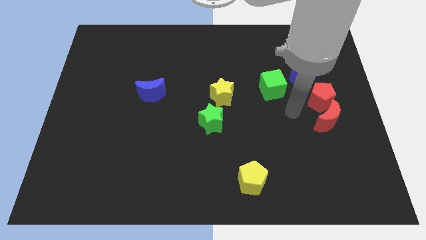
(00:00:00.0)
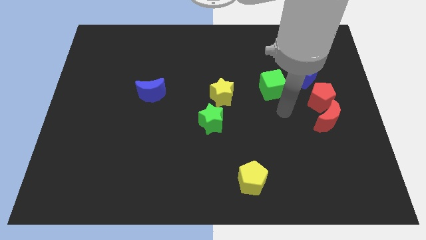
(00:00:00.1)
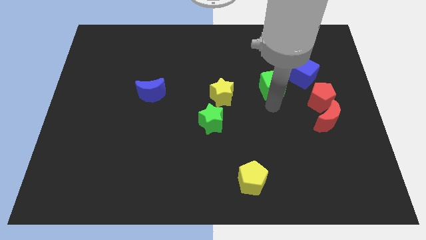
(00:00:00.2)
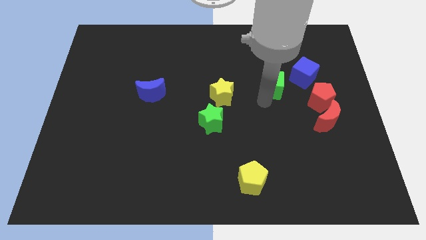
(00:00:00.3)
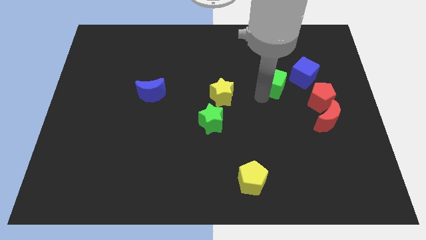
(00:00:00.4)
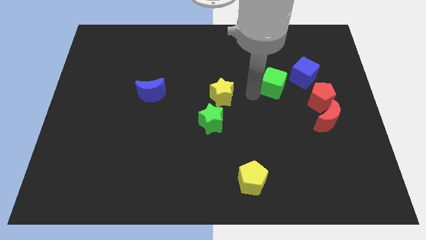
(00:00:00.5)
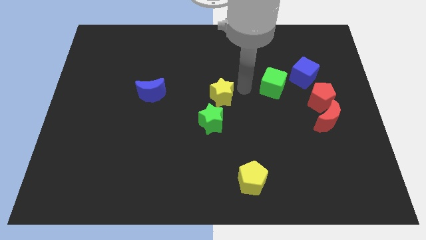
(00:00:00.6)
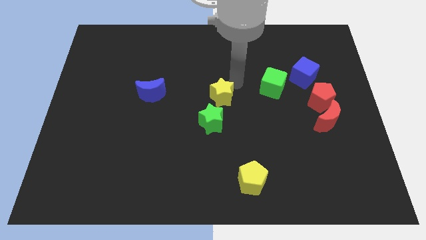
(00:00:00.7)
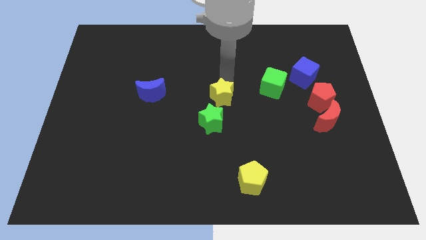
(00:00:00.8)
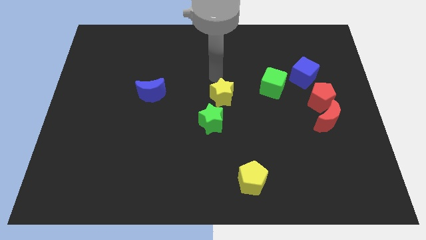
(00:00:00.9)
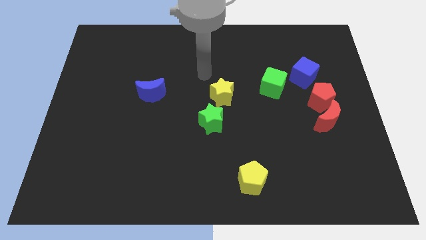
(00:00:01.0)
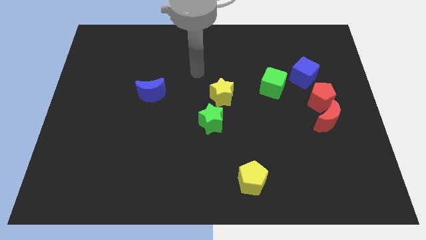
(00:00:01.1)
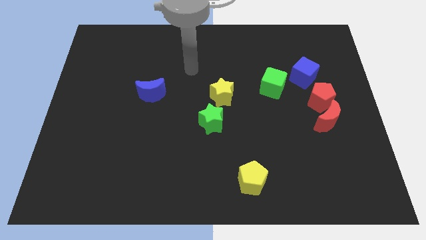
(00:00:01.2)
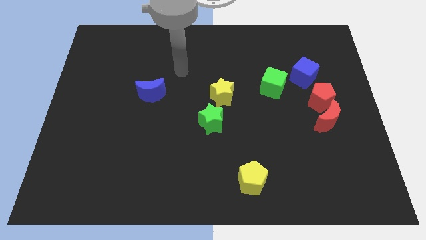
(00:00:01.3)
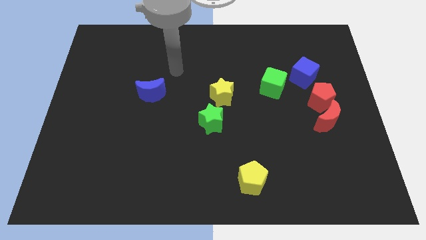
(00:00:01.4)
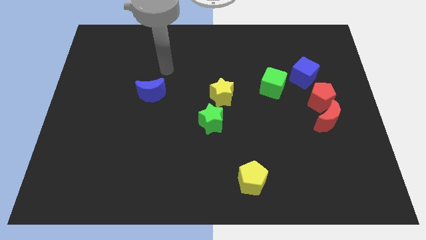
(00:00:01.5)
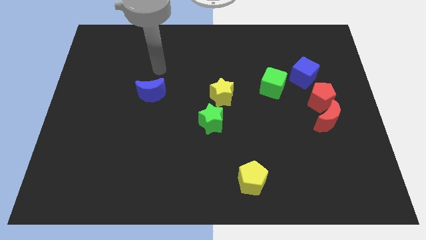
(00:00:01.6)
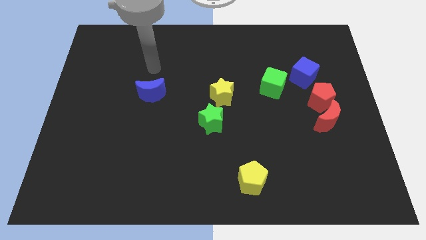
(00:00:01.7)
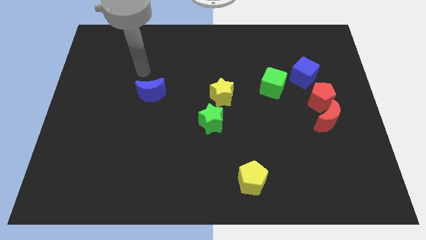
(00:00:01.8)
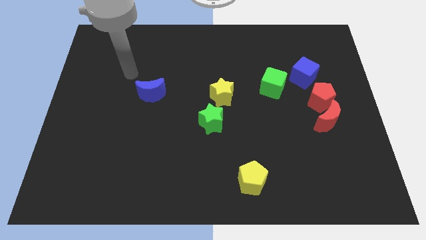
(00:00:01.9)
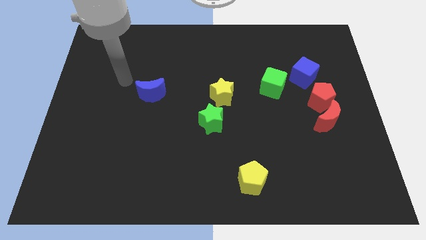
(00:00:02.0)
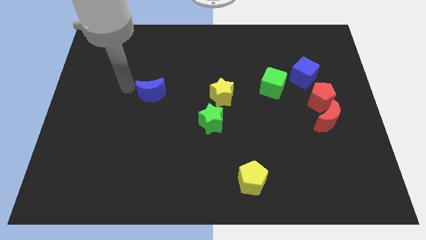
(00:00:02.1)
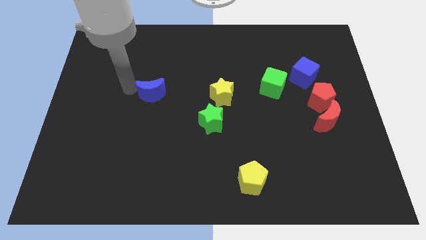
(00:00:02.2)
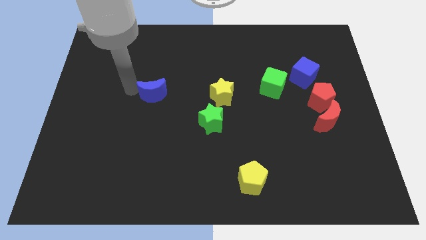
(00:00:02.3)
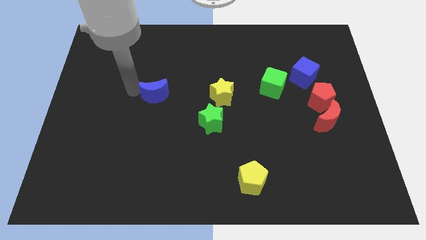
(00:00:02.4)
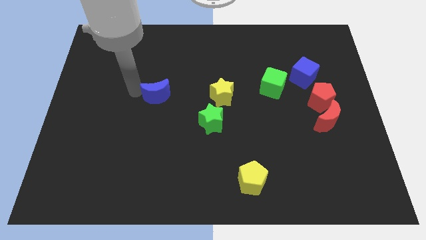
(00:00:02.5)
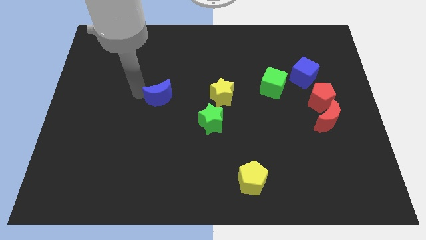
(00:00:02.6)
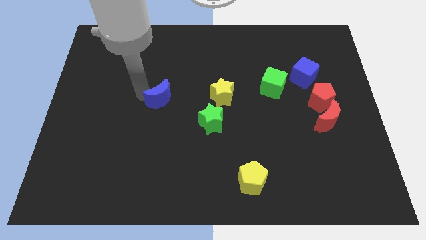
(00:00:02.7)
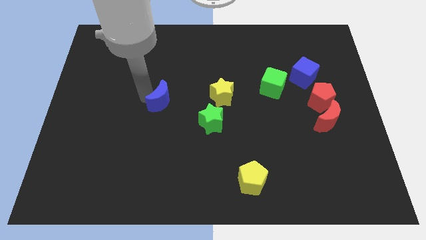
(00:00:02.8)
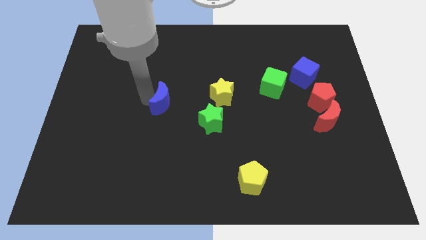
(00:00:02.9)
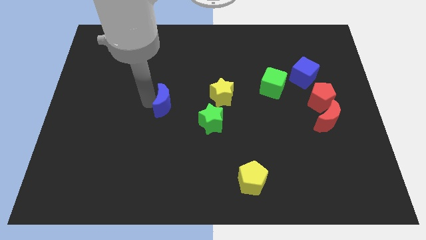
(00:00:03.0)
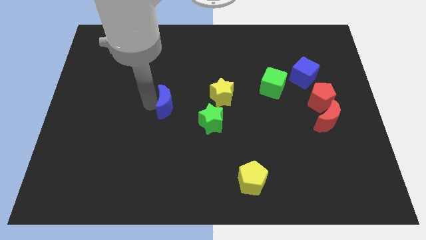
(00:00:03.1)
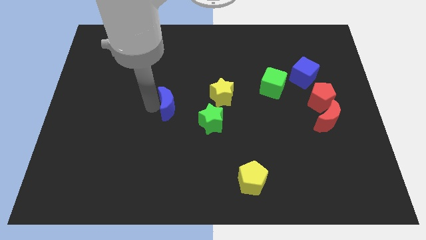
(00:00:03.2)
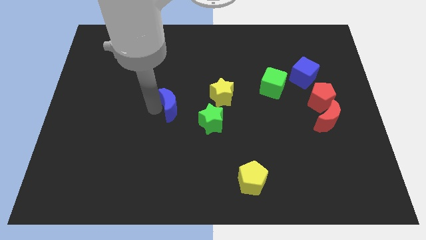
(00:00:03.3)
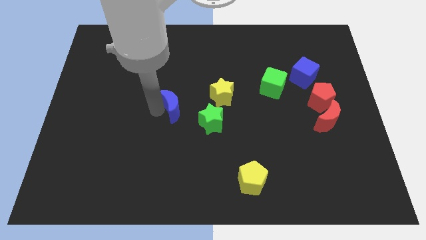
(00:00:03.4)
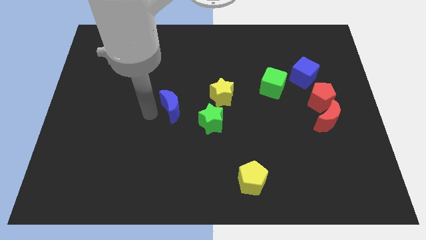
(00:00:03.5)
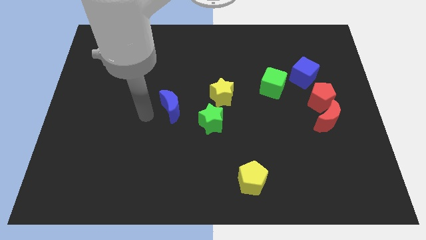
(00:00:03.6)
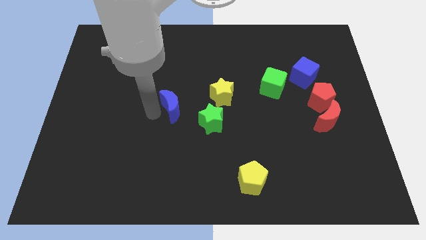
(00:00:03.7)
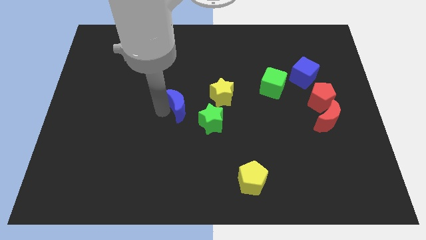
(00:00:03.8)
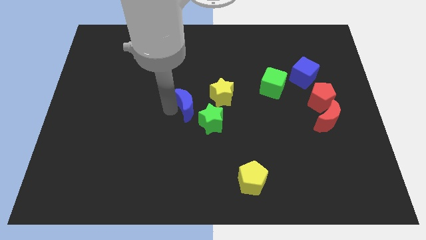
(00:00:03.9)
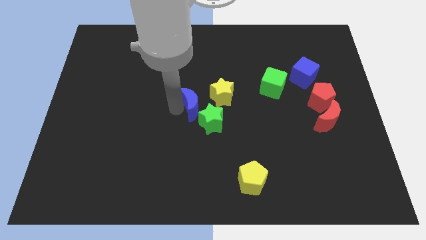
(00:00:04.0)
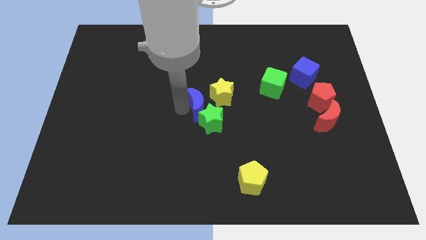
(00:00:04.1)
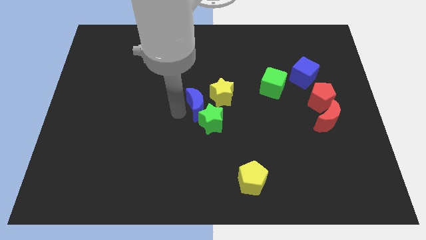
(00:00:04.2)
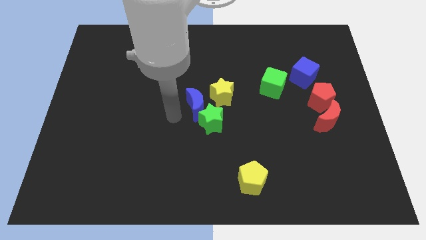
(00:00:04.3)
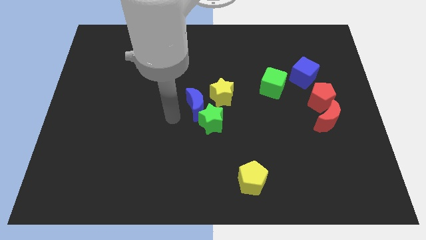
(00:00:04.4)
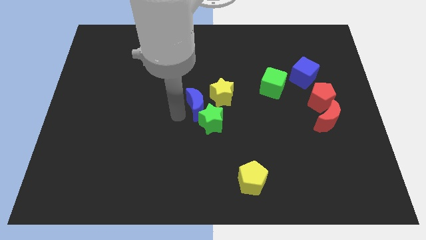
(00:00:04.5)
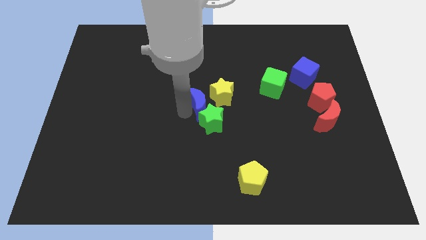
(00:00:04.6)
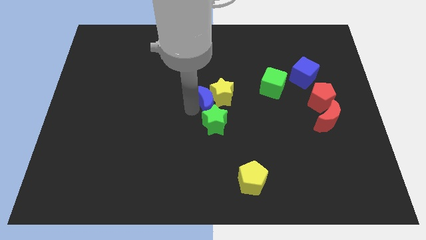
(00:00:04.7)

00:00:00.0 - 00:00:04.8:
move the blue moon to the yellow star

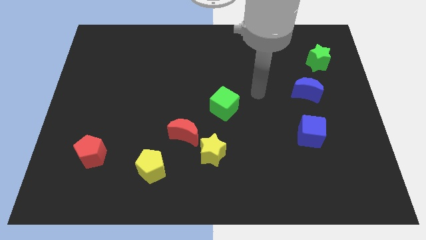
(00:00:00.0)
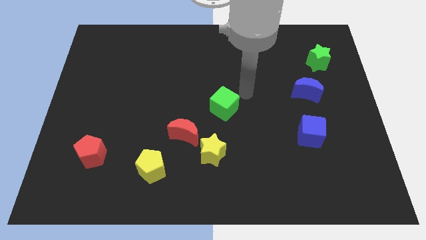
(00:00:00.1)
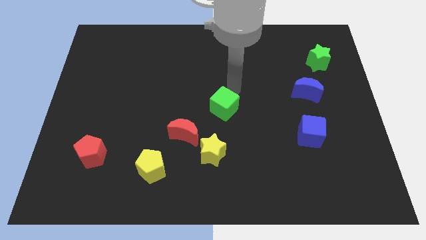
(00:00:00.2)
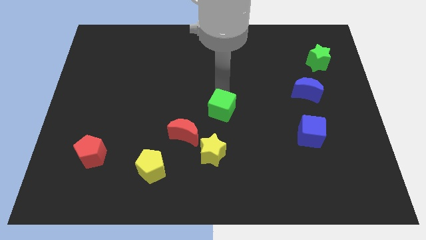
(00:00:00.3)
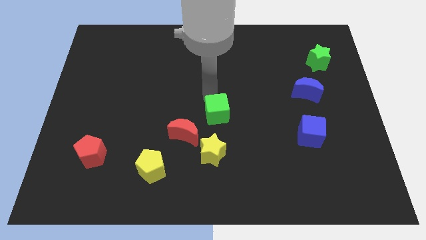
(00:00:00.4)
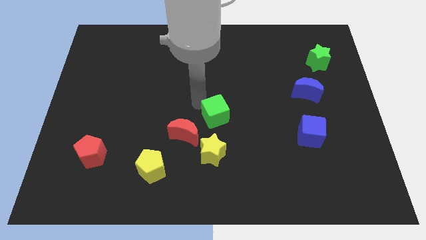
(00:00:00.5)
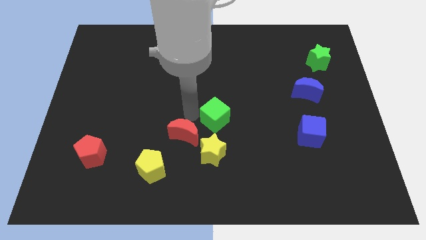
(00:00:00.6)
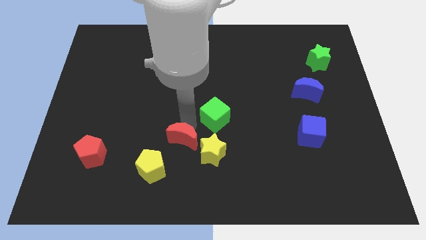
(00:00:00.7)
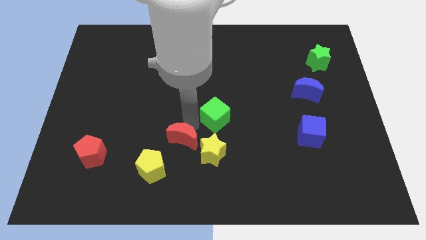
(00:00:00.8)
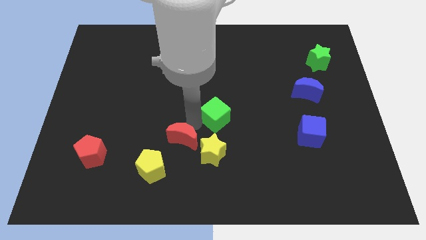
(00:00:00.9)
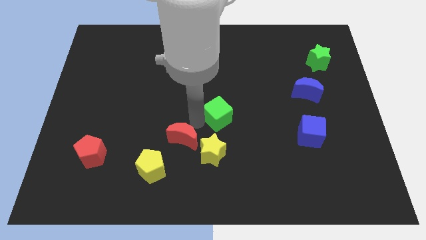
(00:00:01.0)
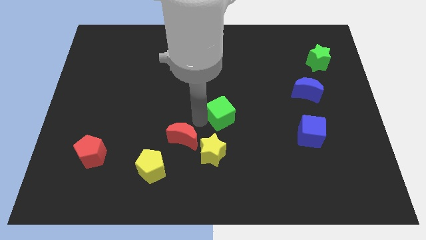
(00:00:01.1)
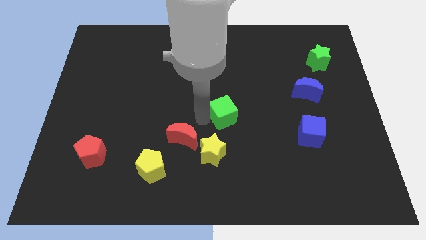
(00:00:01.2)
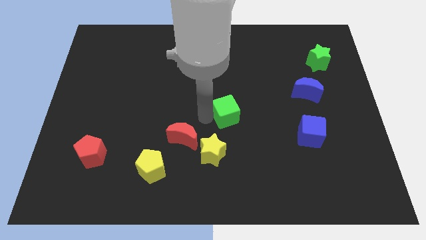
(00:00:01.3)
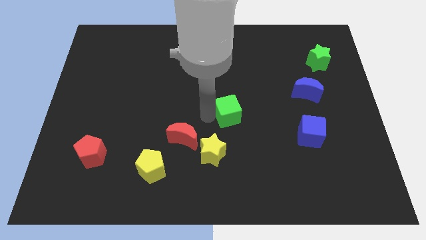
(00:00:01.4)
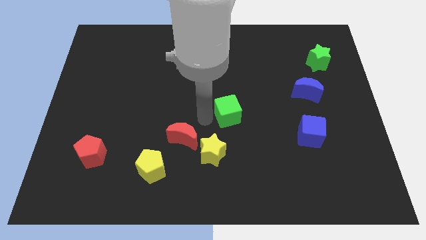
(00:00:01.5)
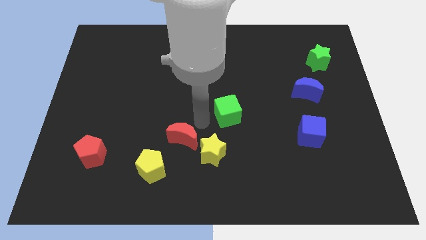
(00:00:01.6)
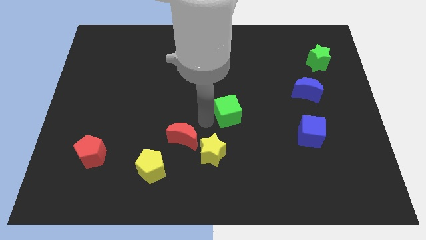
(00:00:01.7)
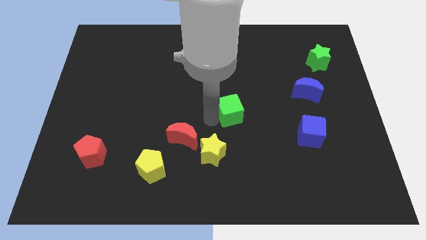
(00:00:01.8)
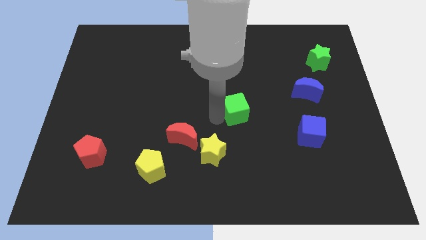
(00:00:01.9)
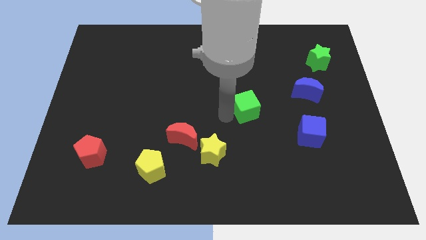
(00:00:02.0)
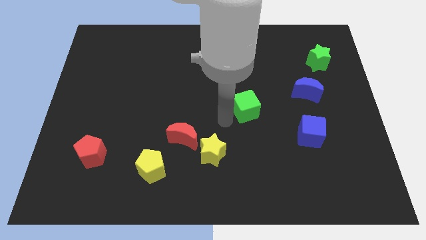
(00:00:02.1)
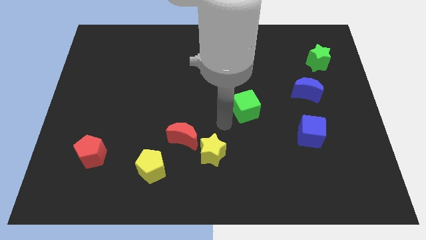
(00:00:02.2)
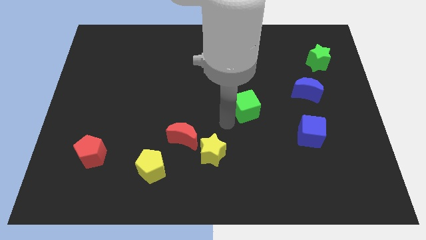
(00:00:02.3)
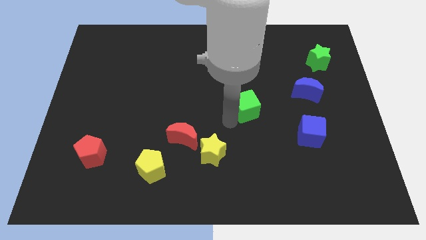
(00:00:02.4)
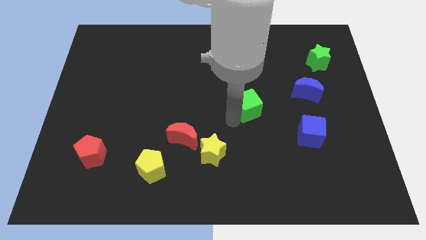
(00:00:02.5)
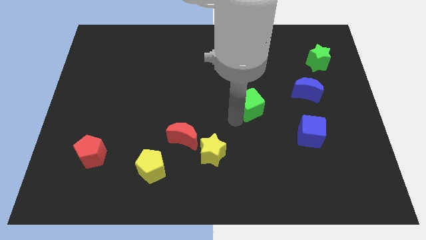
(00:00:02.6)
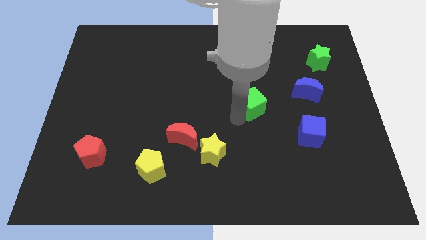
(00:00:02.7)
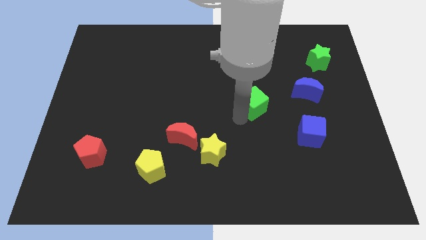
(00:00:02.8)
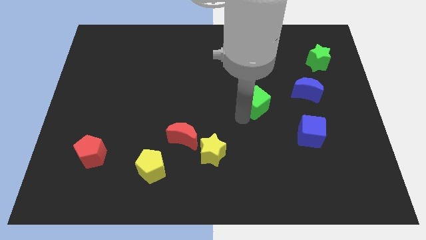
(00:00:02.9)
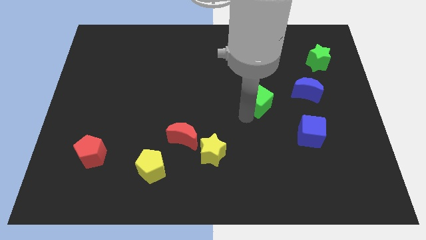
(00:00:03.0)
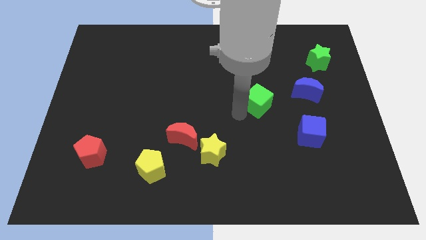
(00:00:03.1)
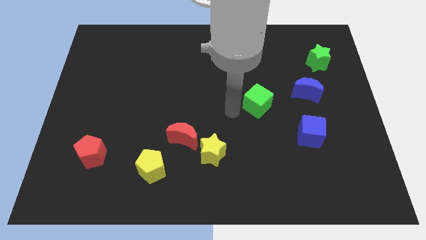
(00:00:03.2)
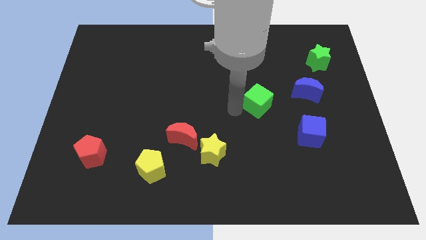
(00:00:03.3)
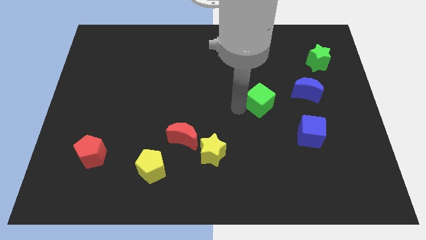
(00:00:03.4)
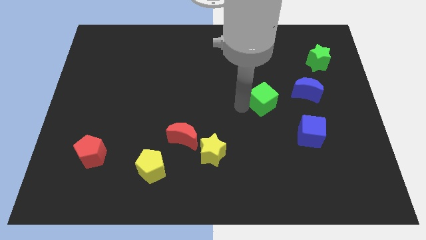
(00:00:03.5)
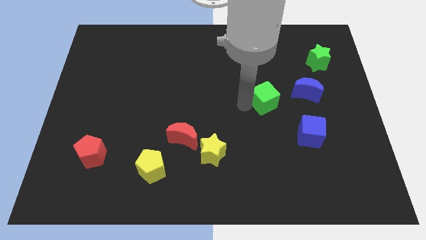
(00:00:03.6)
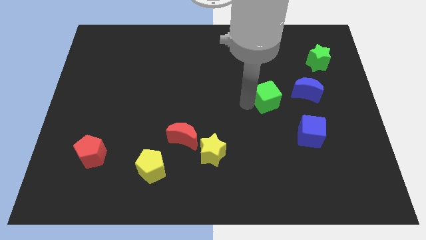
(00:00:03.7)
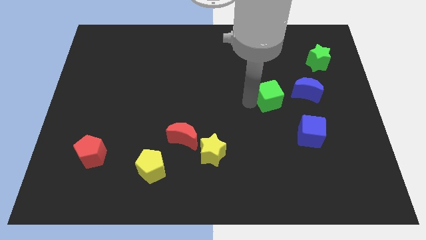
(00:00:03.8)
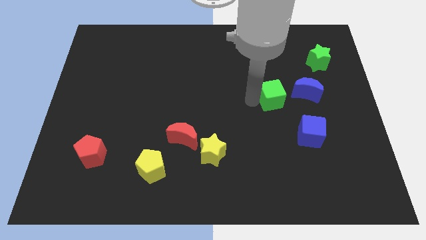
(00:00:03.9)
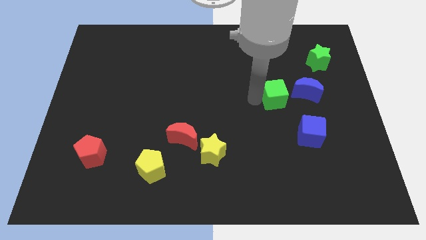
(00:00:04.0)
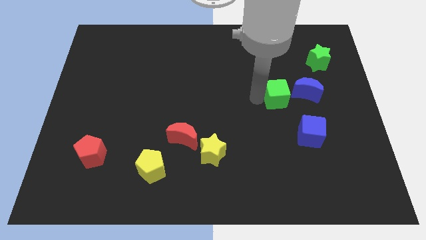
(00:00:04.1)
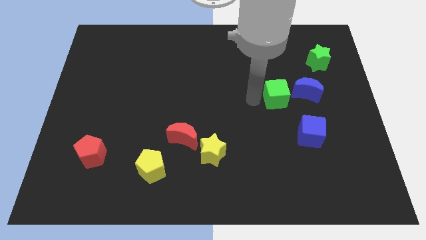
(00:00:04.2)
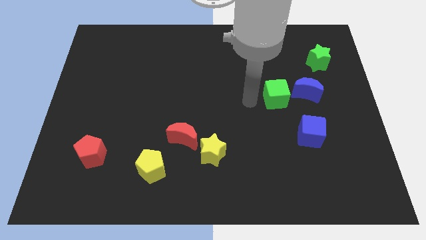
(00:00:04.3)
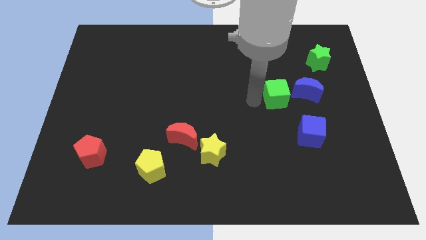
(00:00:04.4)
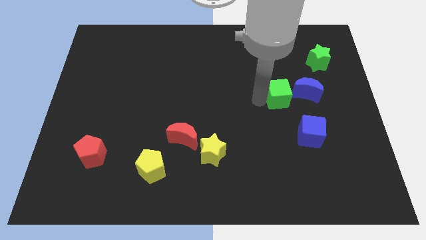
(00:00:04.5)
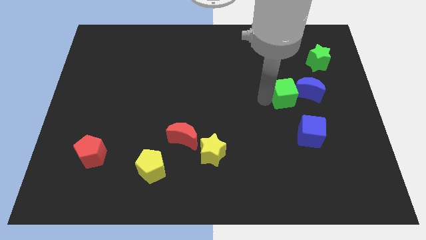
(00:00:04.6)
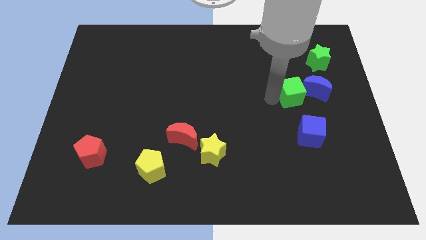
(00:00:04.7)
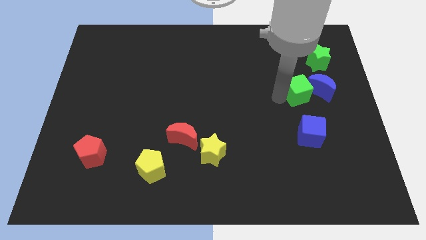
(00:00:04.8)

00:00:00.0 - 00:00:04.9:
put the green cube towards the blue moon
